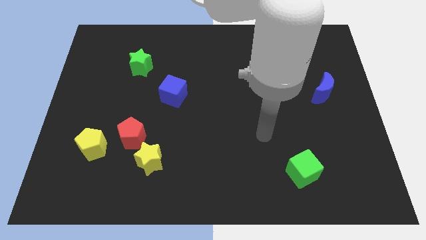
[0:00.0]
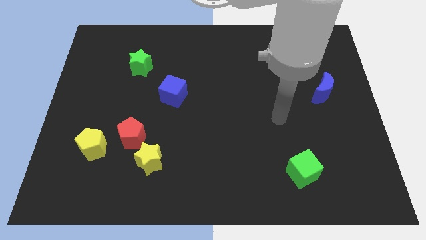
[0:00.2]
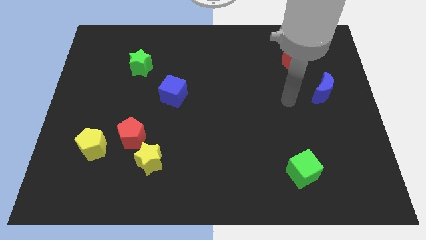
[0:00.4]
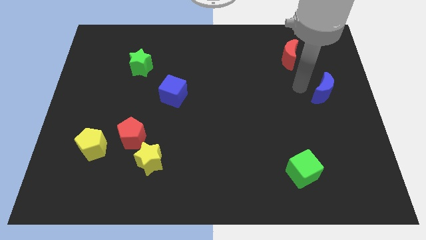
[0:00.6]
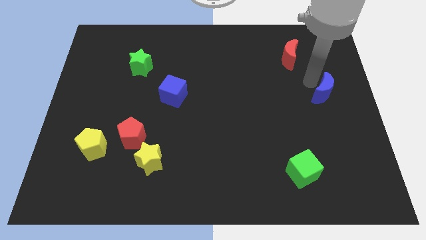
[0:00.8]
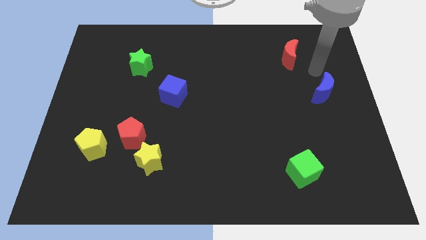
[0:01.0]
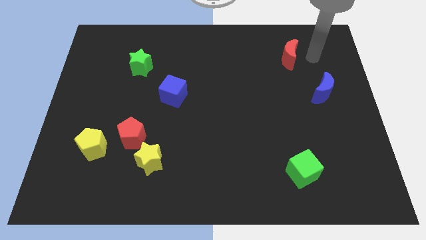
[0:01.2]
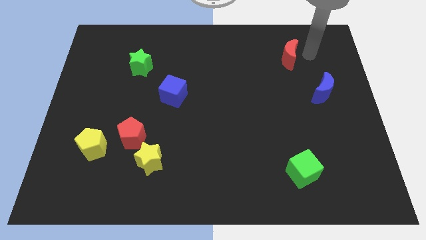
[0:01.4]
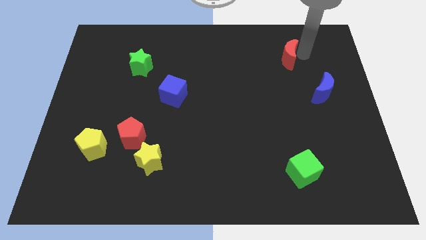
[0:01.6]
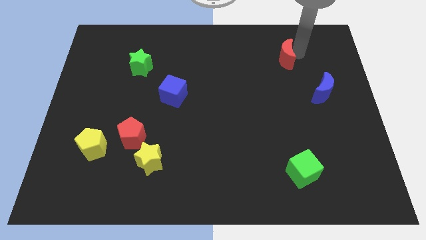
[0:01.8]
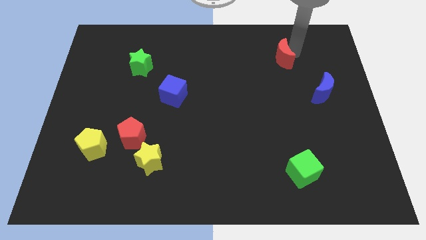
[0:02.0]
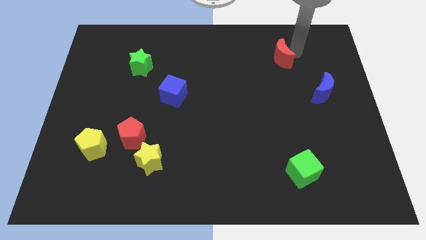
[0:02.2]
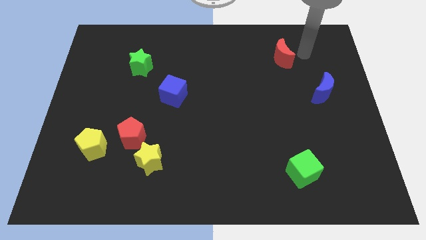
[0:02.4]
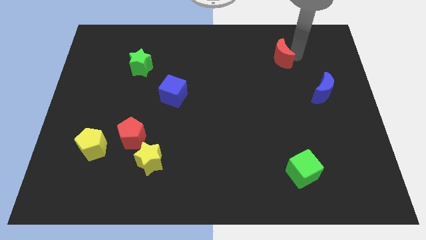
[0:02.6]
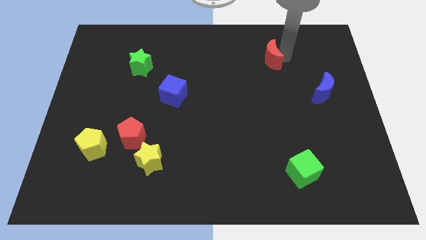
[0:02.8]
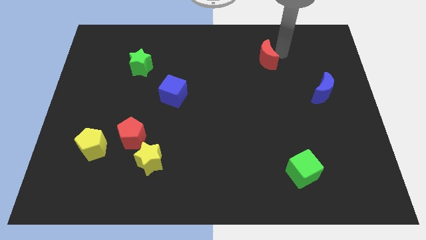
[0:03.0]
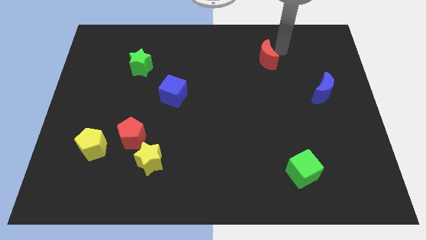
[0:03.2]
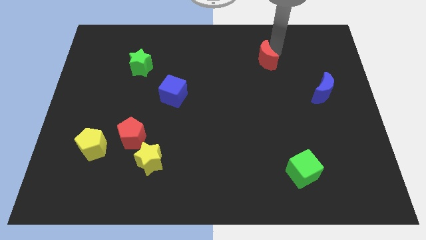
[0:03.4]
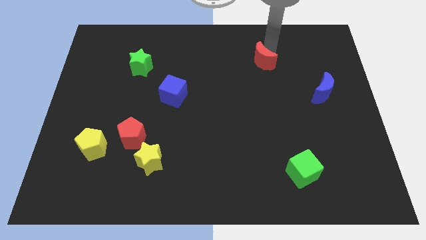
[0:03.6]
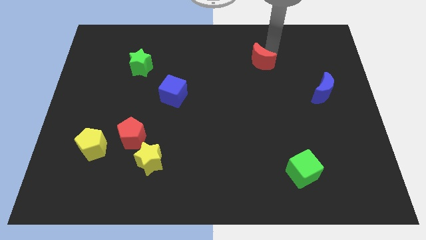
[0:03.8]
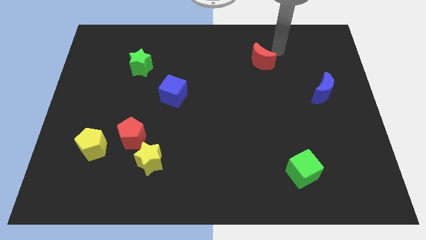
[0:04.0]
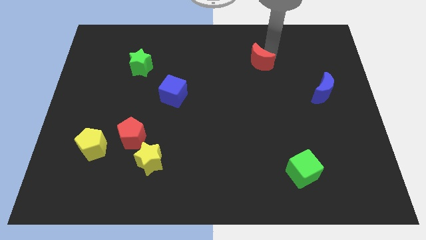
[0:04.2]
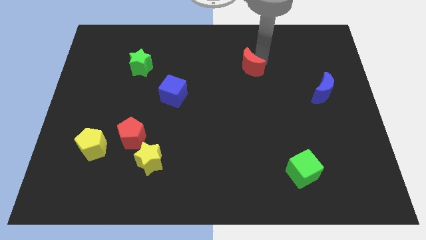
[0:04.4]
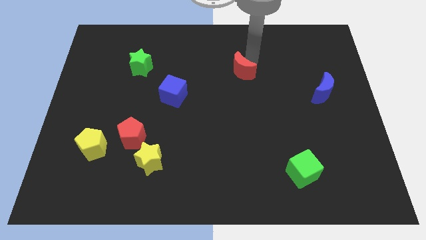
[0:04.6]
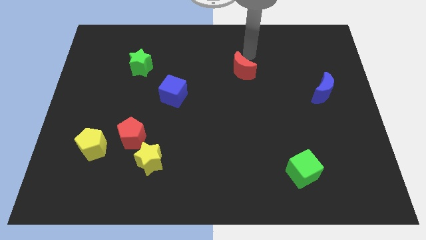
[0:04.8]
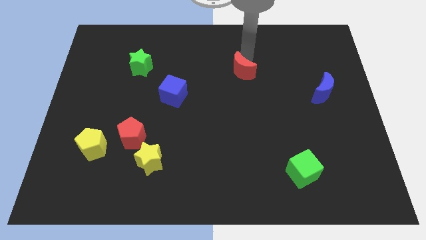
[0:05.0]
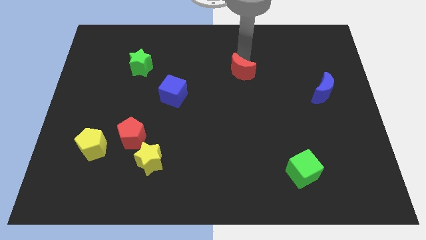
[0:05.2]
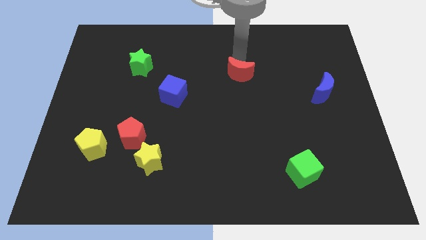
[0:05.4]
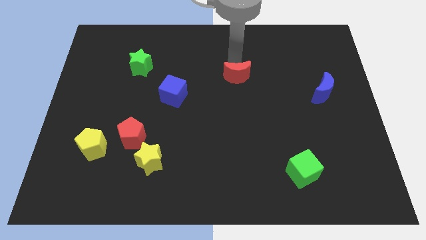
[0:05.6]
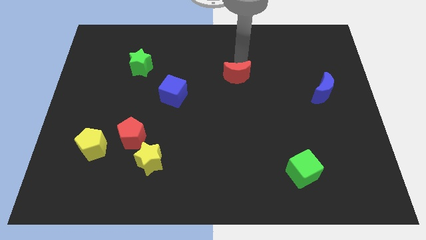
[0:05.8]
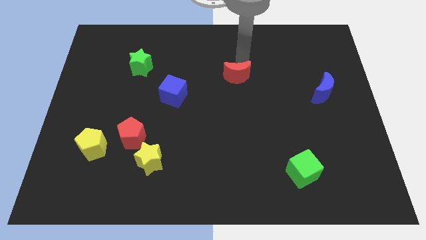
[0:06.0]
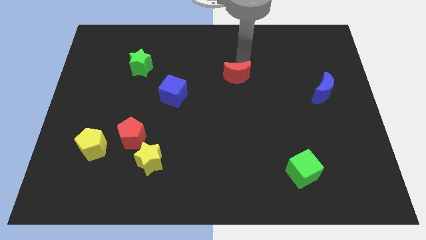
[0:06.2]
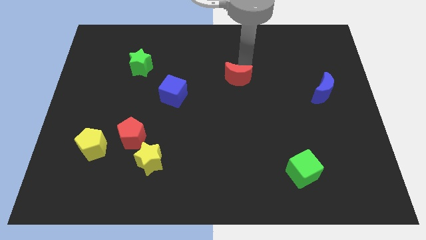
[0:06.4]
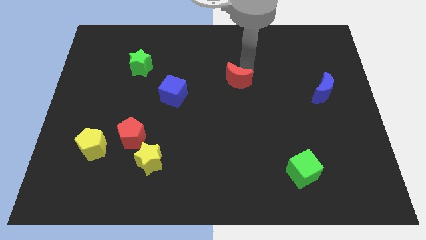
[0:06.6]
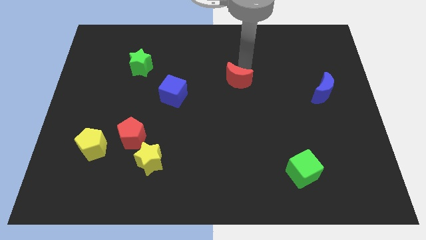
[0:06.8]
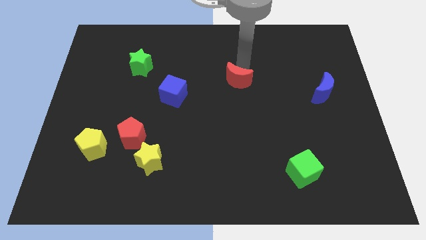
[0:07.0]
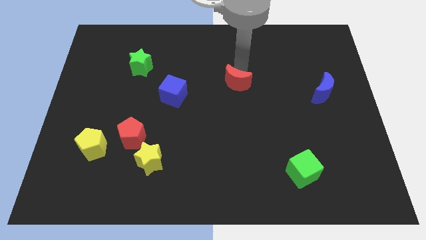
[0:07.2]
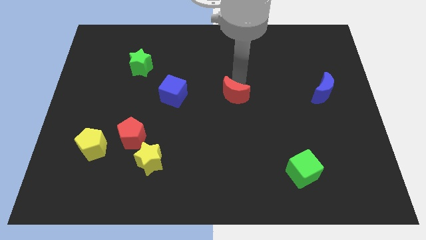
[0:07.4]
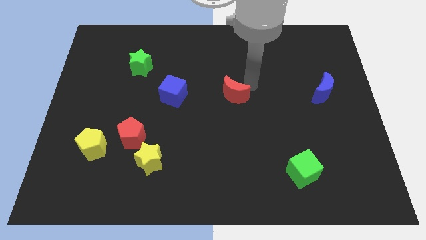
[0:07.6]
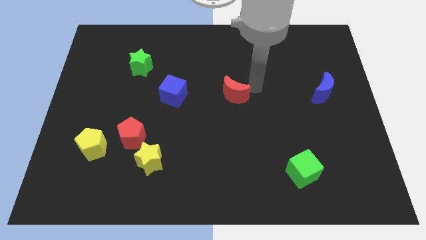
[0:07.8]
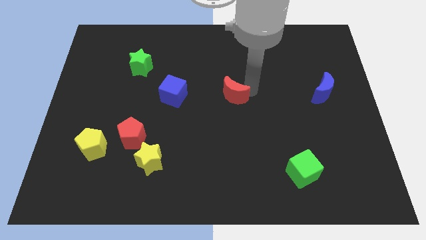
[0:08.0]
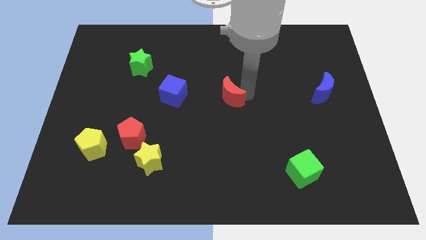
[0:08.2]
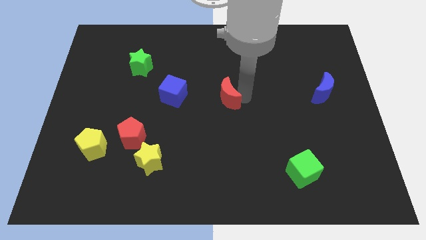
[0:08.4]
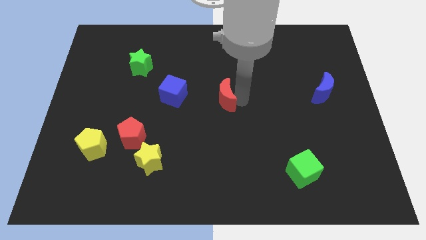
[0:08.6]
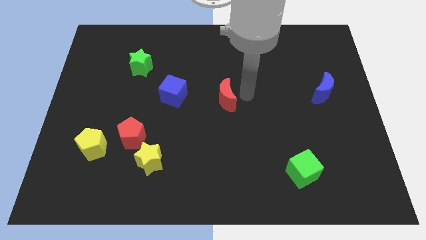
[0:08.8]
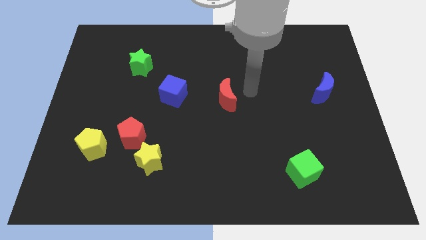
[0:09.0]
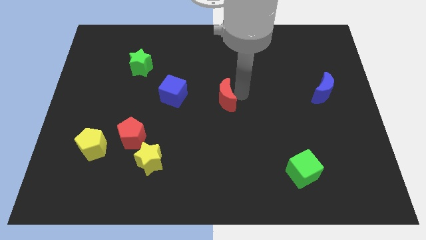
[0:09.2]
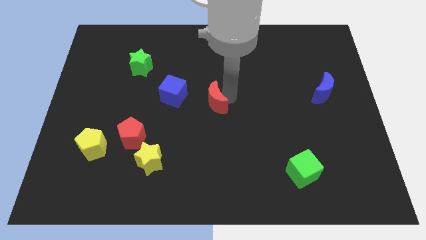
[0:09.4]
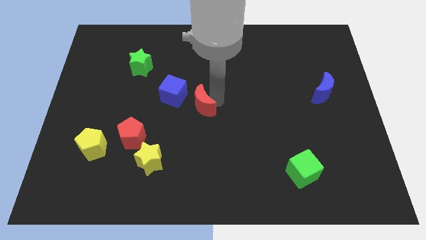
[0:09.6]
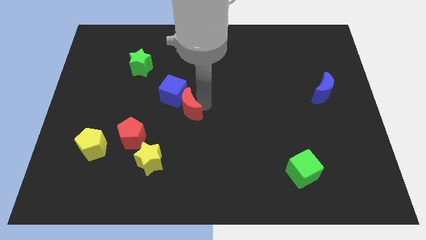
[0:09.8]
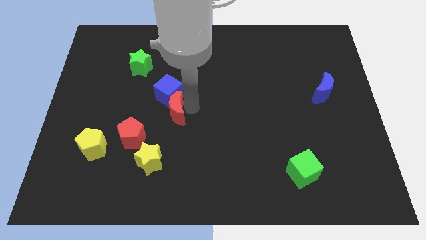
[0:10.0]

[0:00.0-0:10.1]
move the red moon diagonally up and to the right of the red pentagon

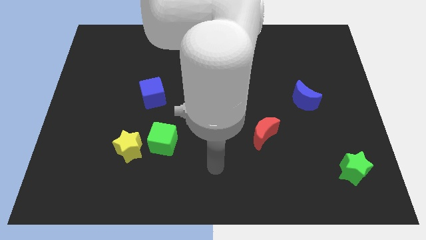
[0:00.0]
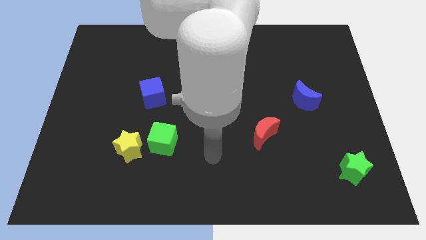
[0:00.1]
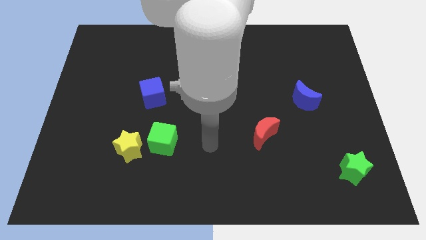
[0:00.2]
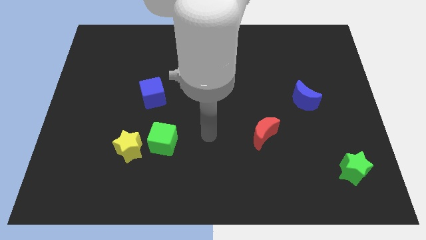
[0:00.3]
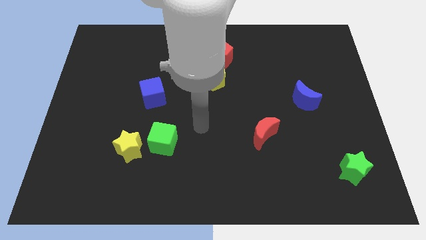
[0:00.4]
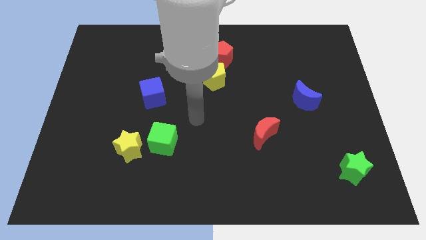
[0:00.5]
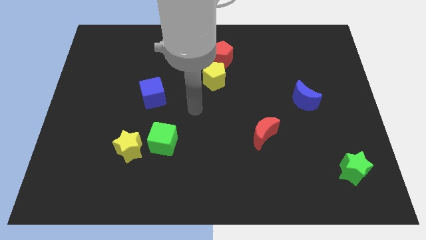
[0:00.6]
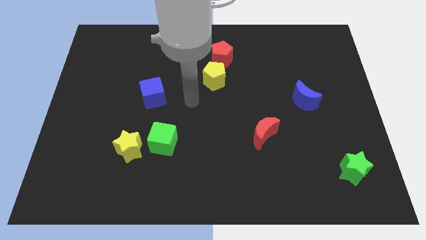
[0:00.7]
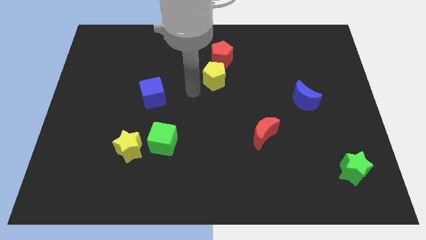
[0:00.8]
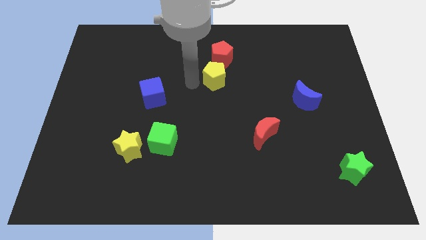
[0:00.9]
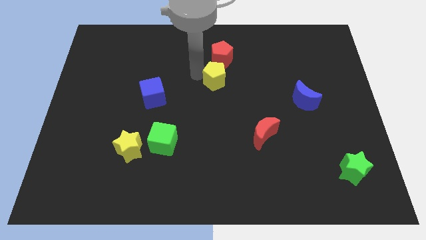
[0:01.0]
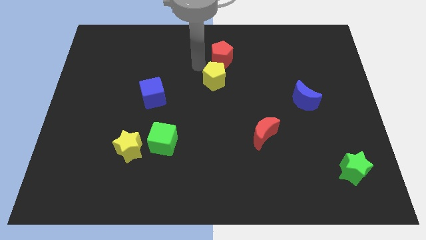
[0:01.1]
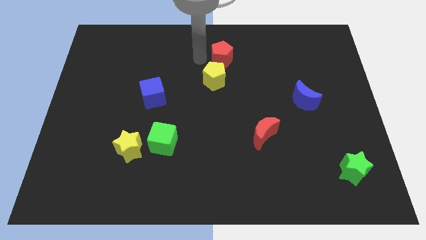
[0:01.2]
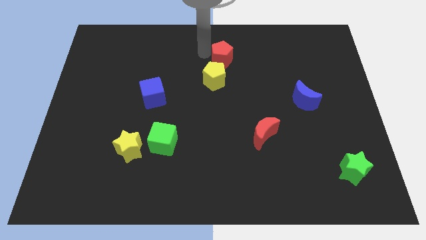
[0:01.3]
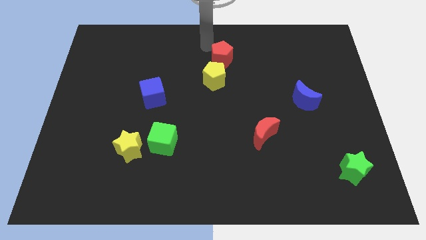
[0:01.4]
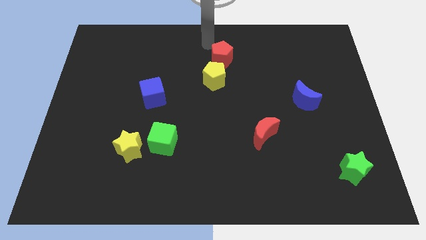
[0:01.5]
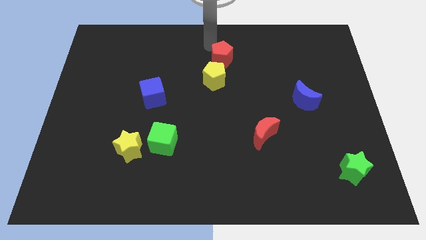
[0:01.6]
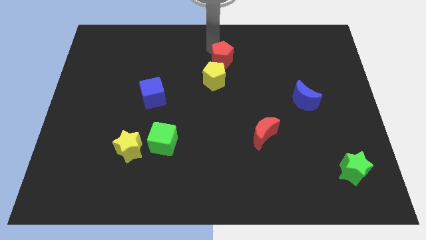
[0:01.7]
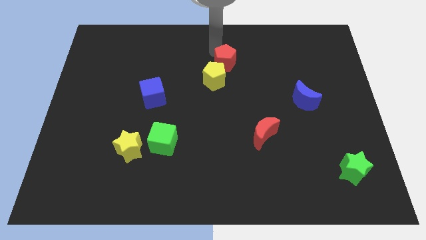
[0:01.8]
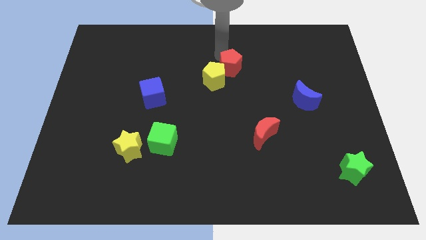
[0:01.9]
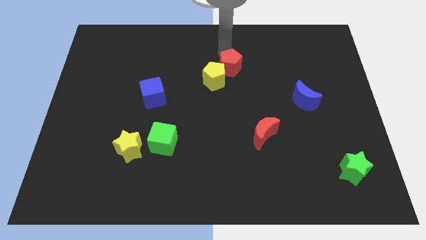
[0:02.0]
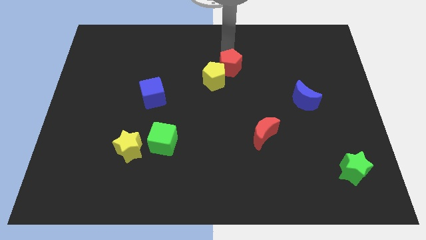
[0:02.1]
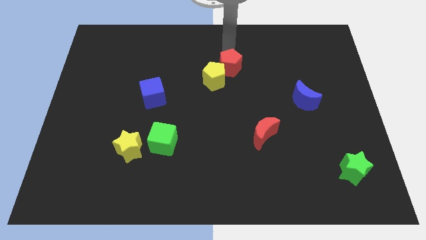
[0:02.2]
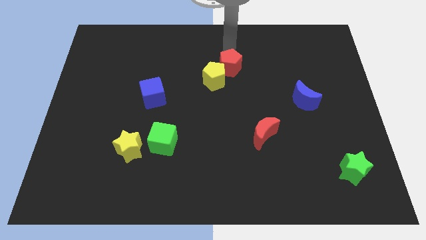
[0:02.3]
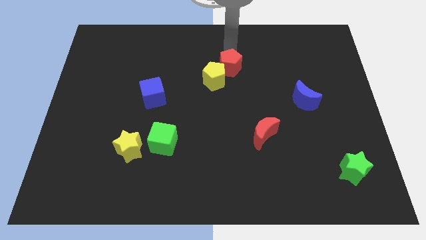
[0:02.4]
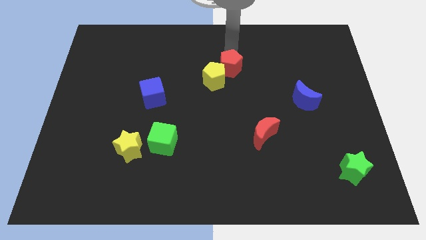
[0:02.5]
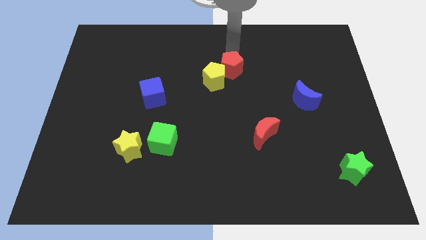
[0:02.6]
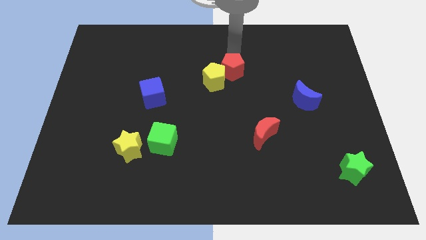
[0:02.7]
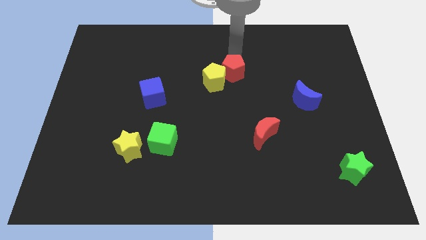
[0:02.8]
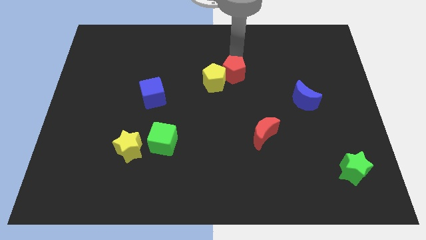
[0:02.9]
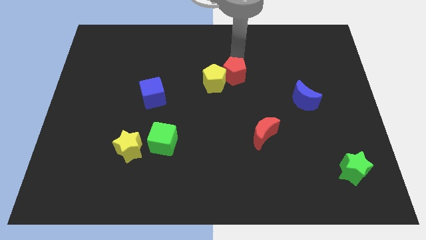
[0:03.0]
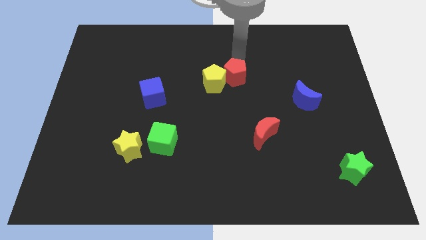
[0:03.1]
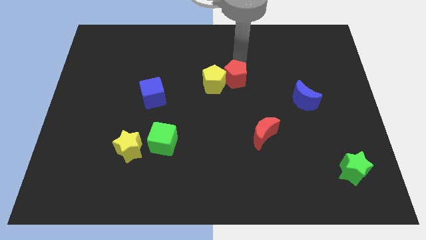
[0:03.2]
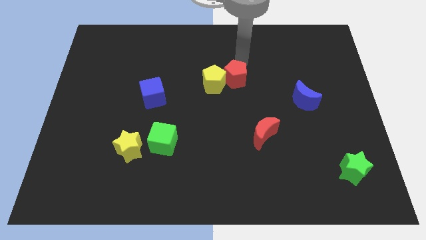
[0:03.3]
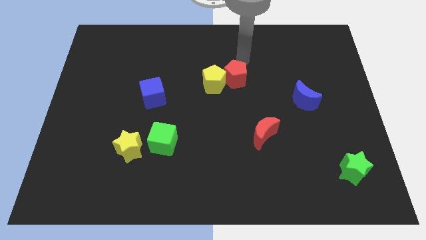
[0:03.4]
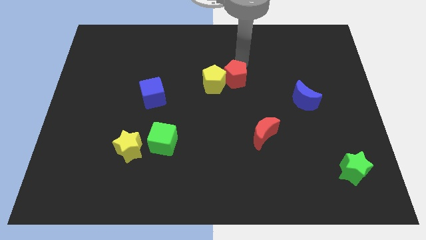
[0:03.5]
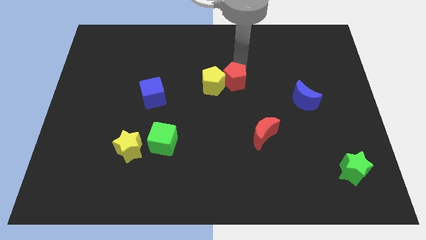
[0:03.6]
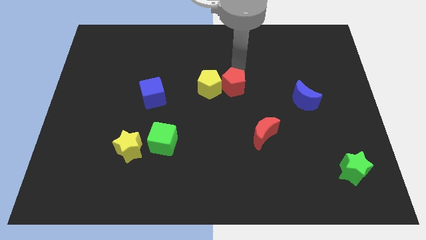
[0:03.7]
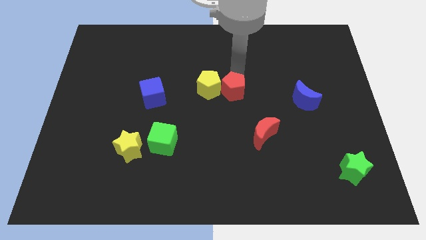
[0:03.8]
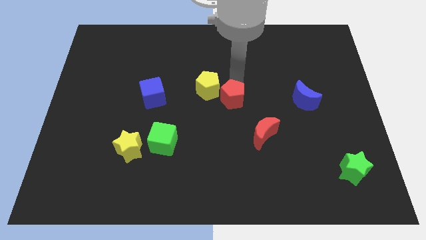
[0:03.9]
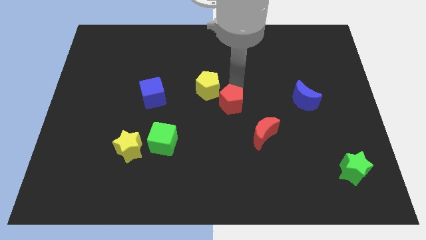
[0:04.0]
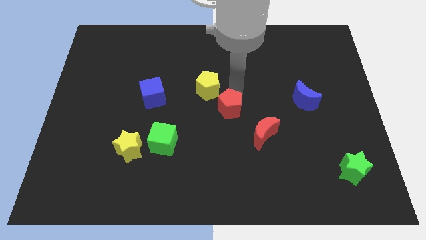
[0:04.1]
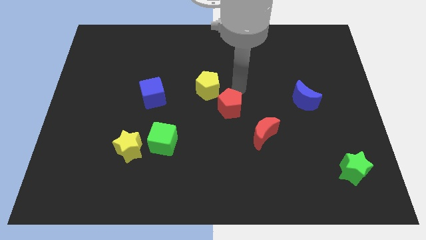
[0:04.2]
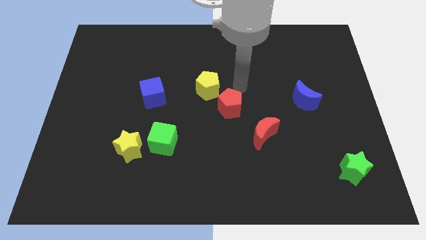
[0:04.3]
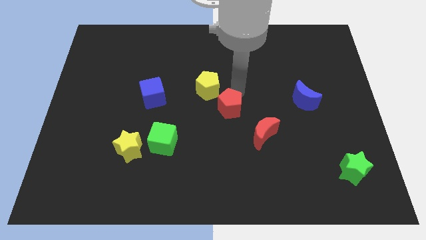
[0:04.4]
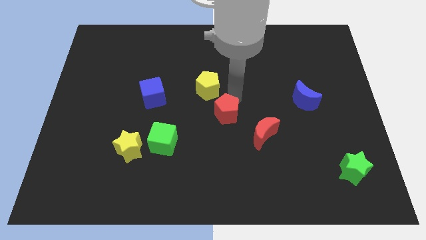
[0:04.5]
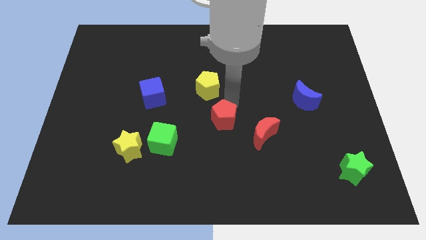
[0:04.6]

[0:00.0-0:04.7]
move the red pentagon just left of the red moon
